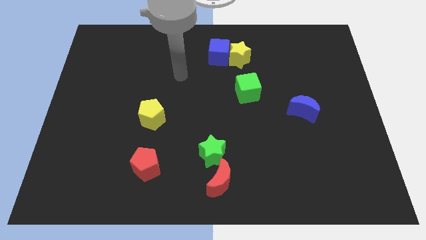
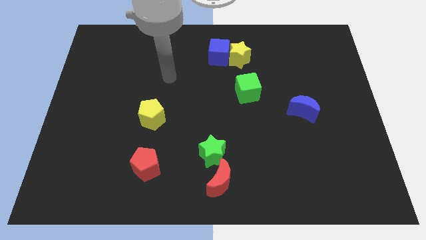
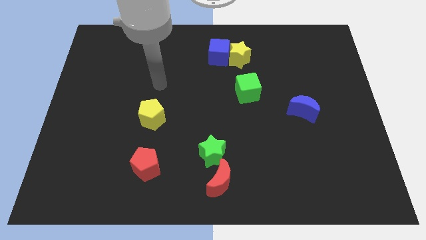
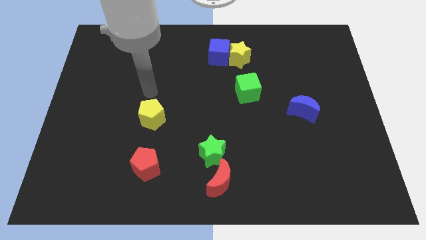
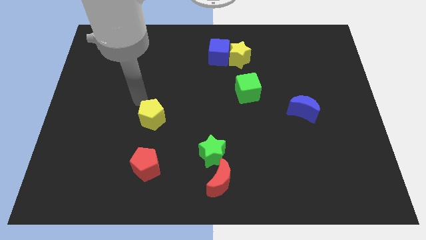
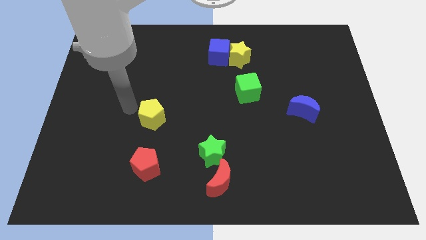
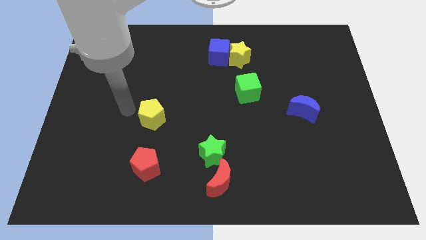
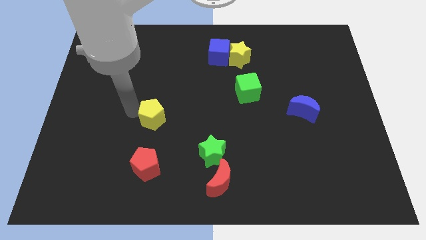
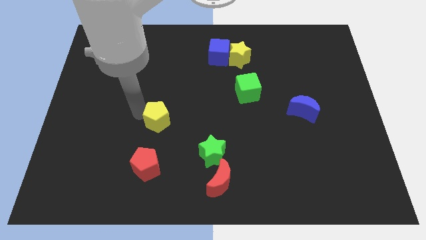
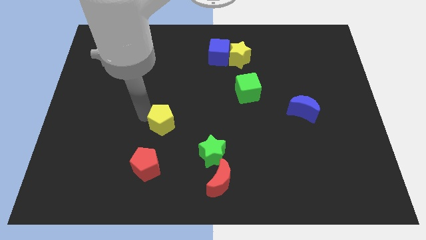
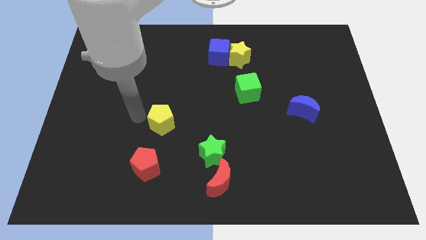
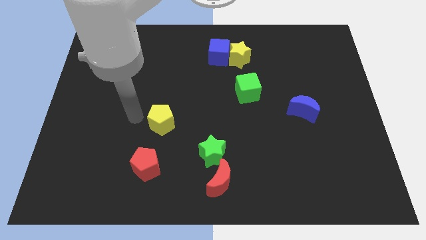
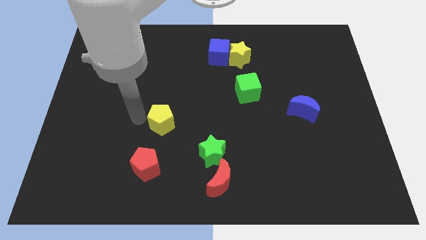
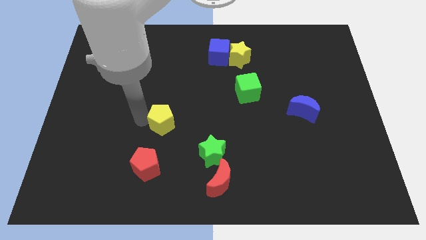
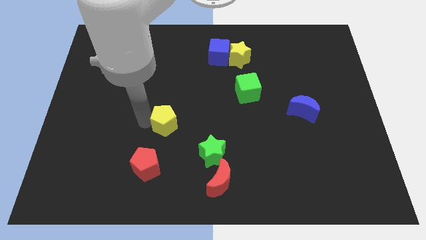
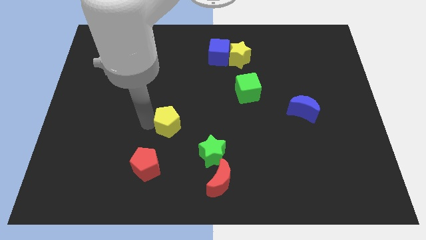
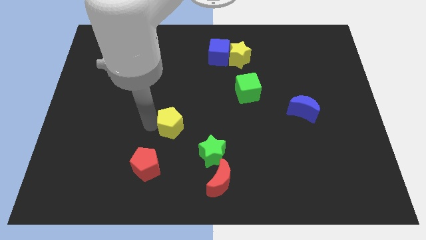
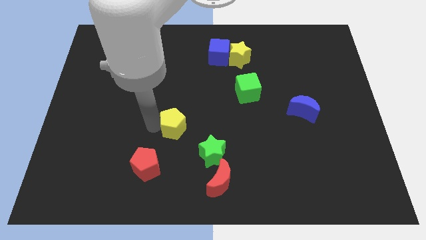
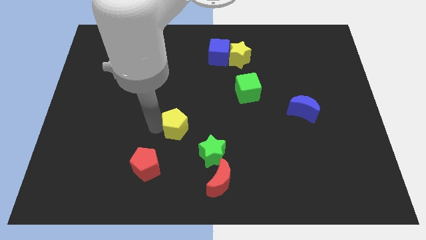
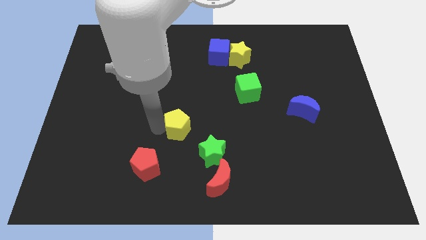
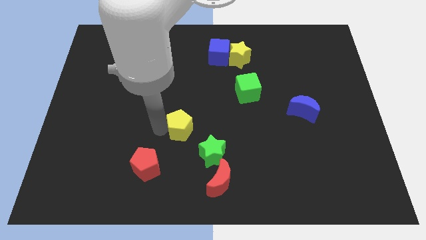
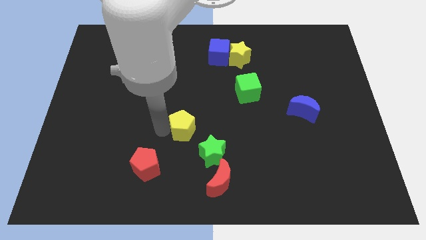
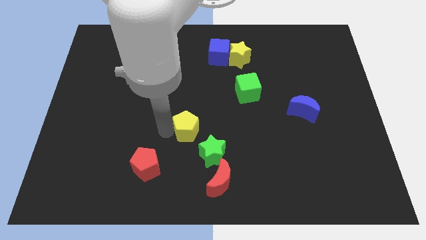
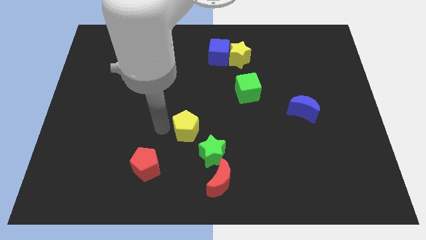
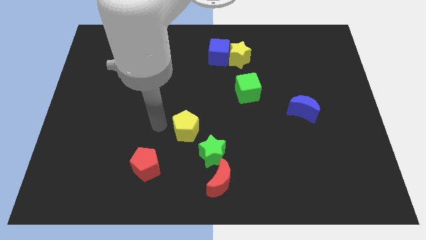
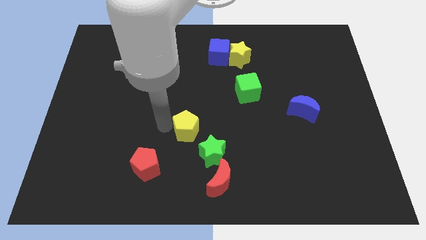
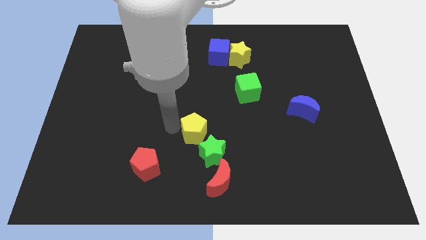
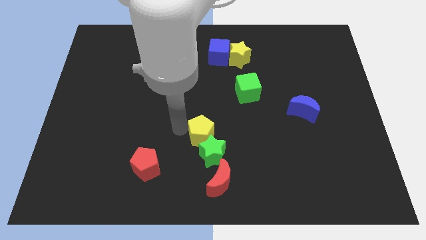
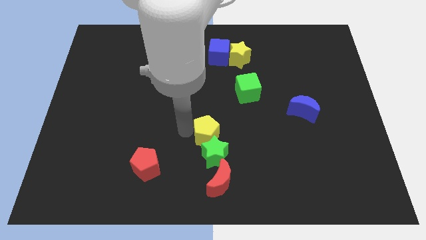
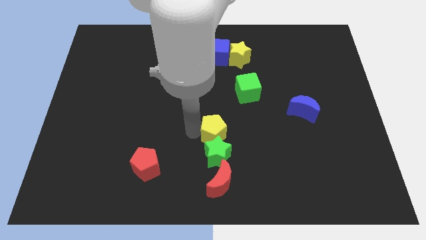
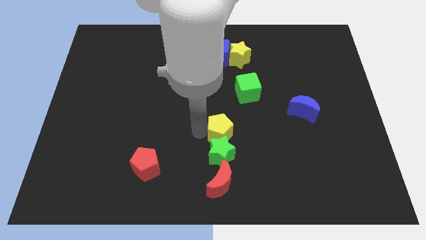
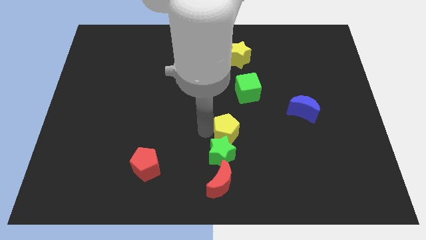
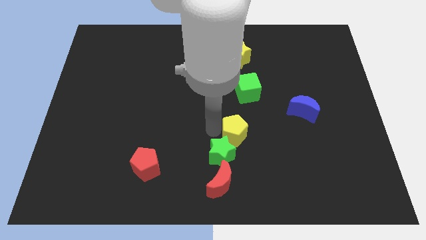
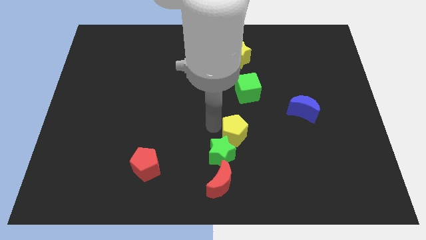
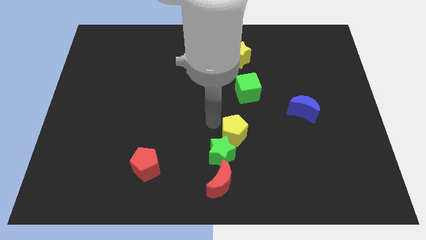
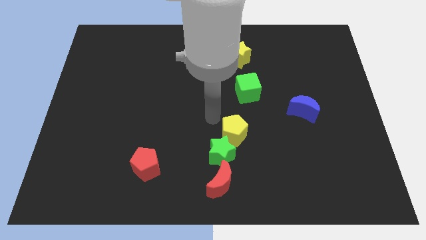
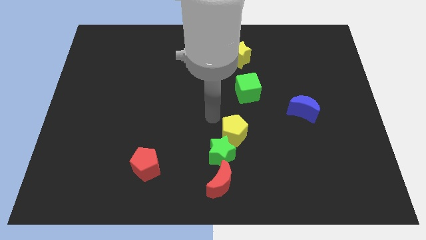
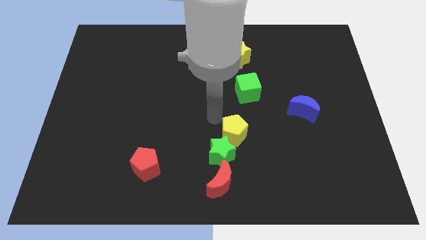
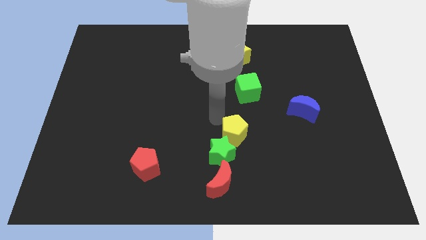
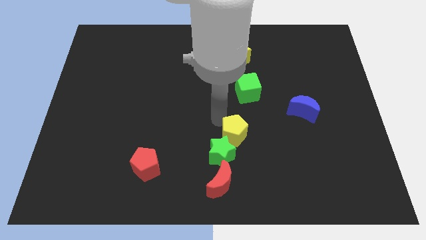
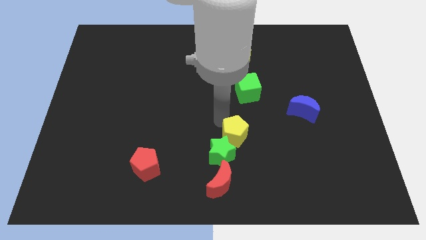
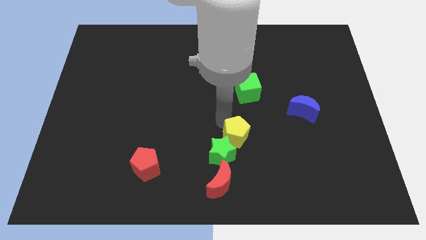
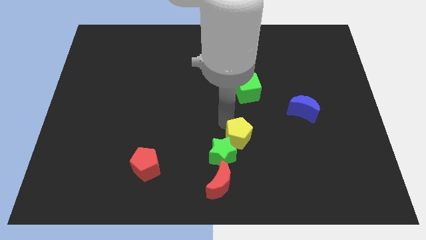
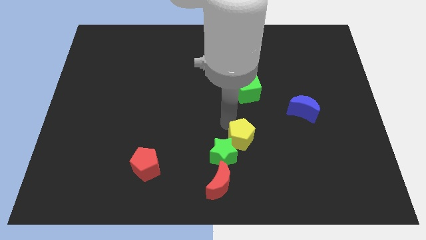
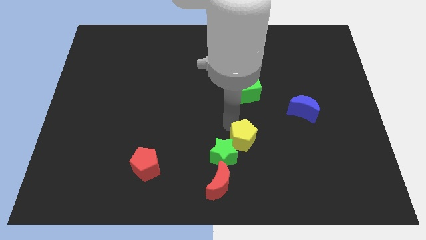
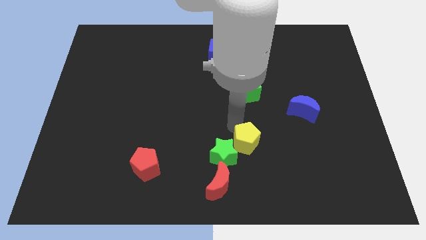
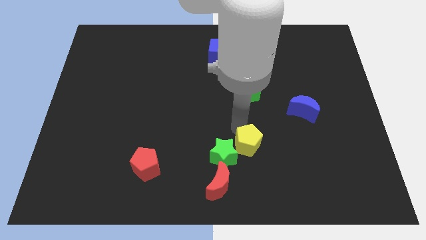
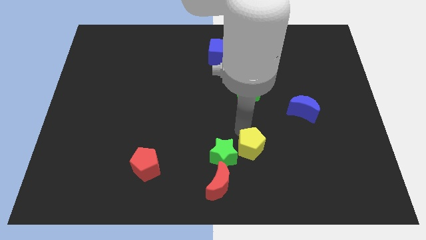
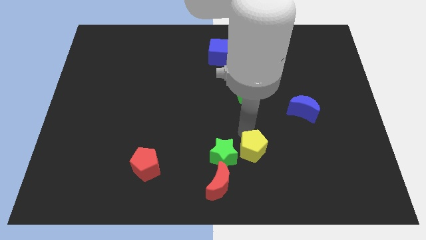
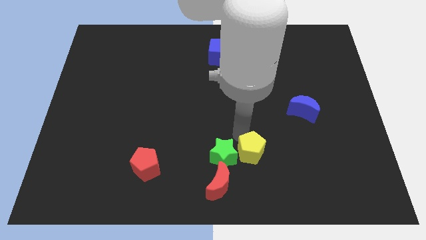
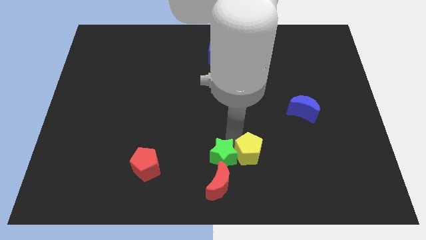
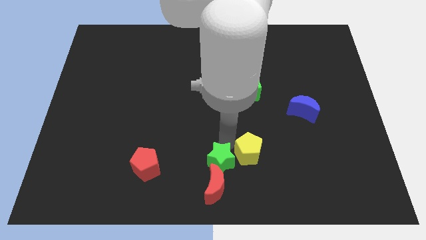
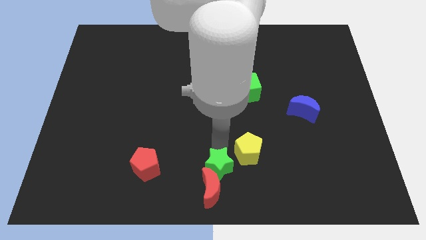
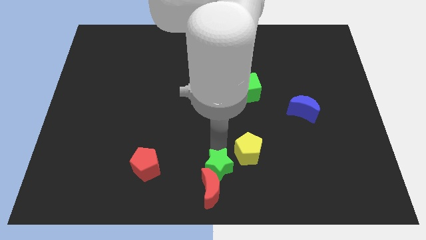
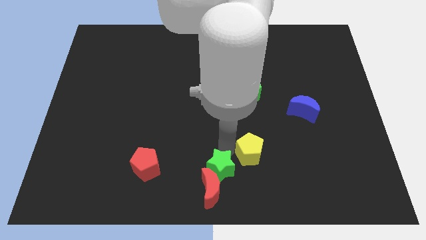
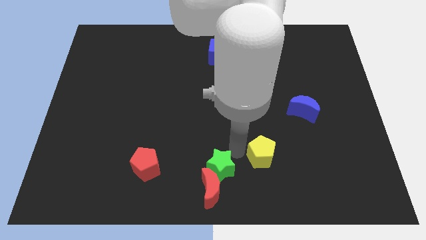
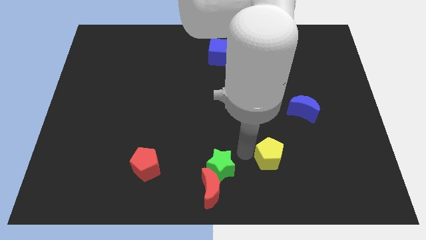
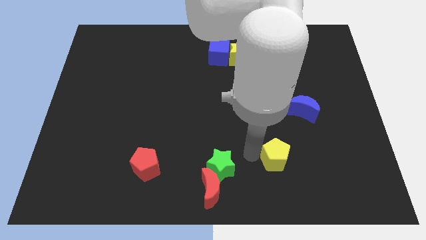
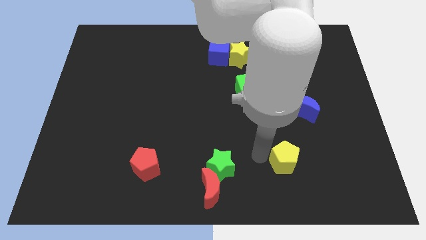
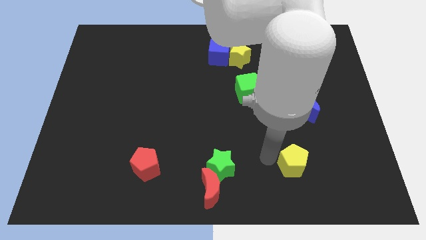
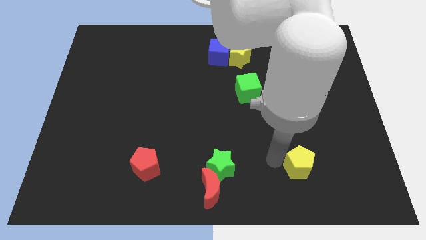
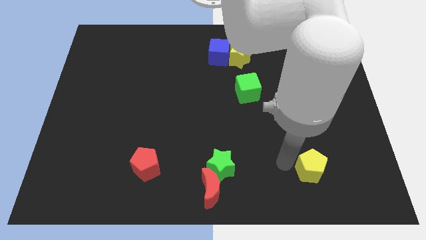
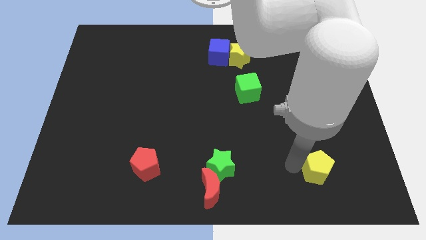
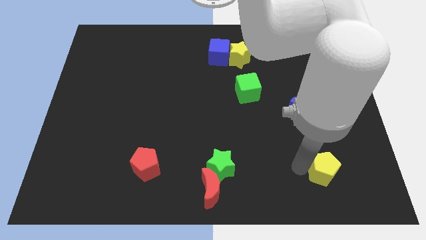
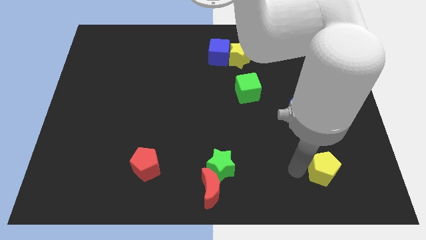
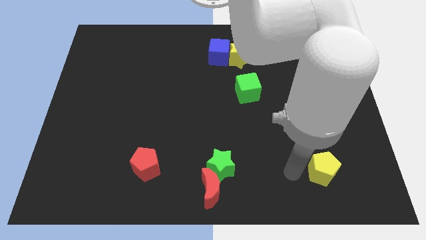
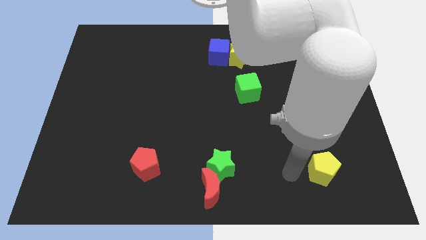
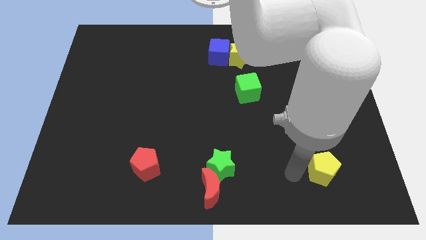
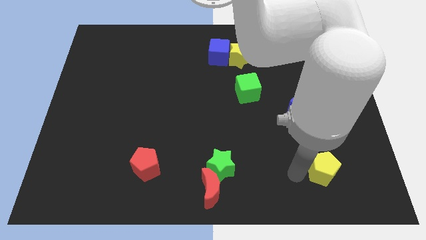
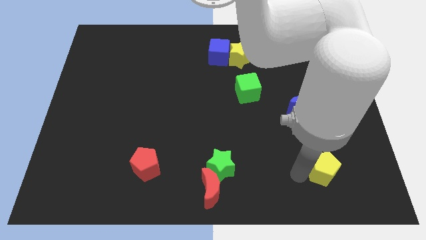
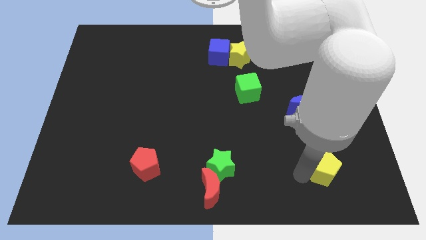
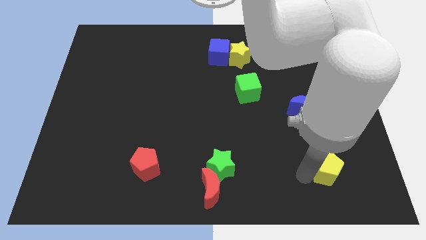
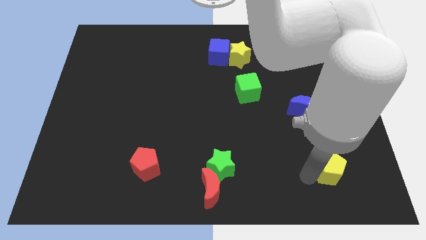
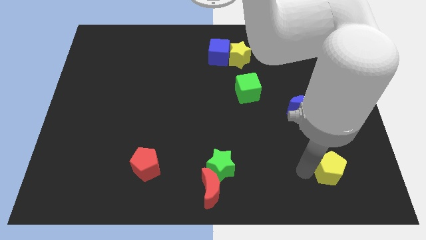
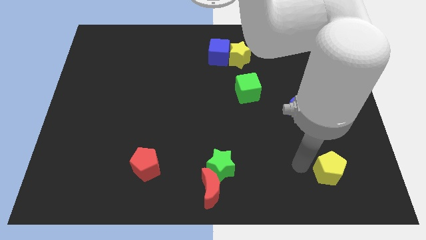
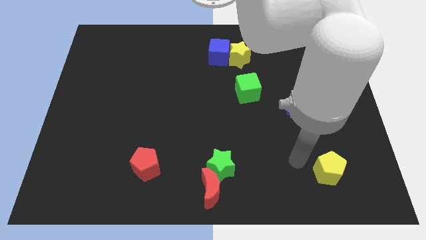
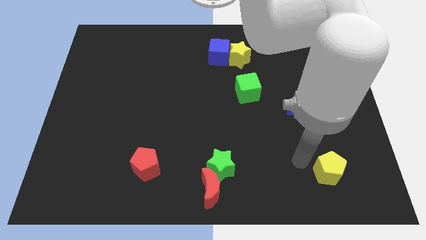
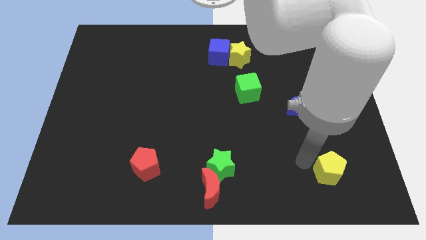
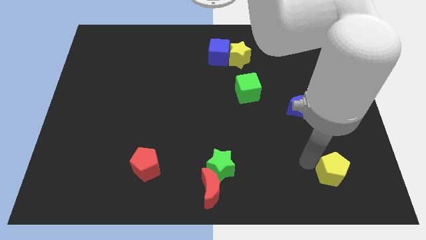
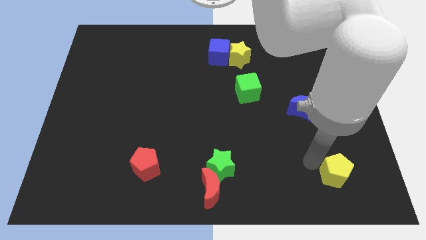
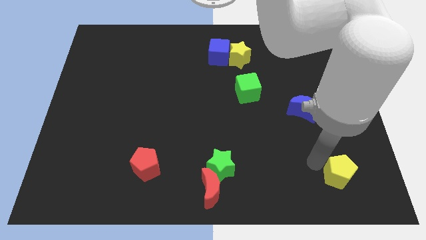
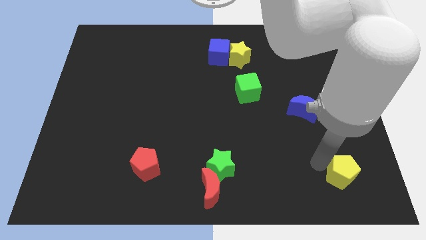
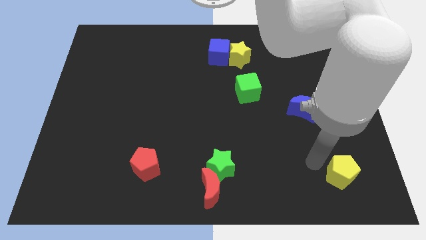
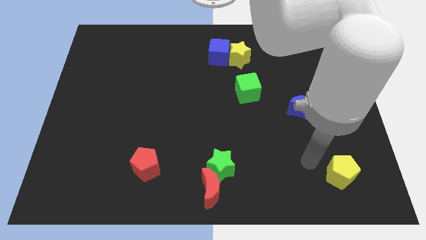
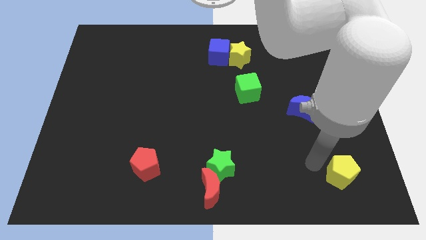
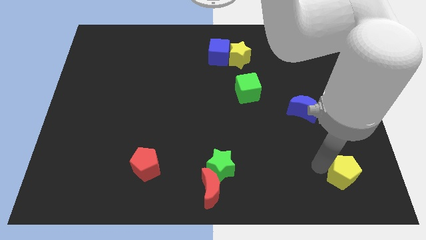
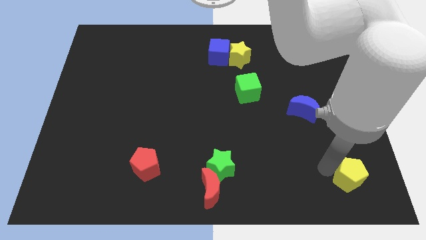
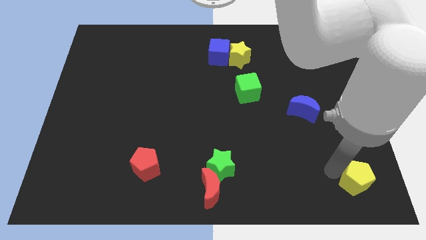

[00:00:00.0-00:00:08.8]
put the yellow pentagon to the bottom right corner
